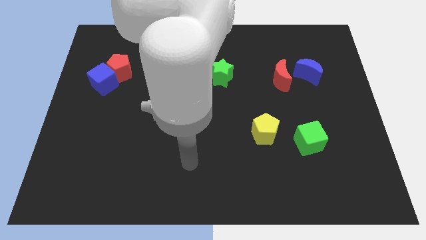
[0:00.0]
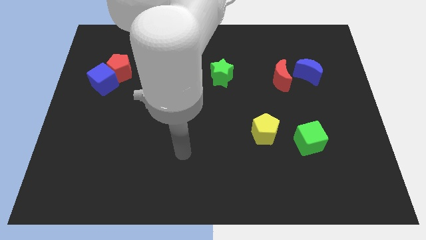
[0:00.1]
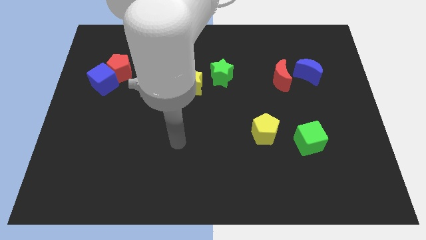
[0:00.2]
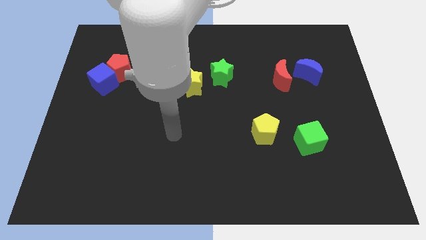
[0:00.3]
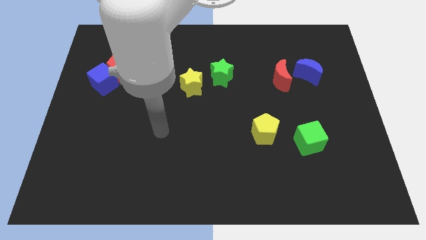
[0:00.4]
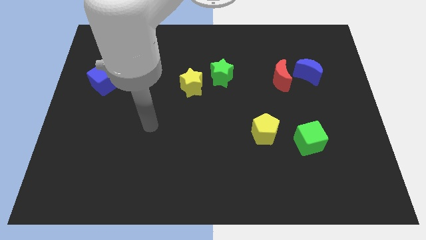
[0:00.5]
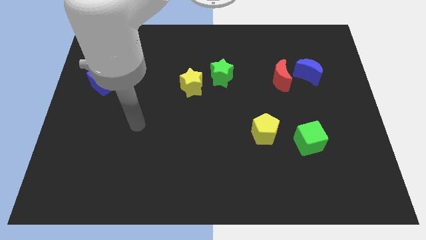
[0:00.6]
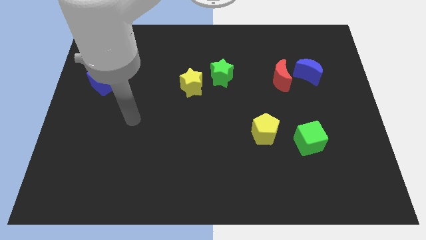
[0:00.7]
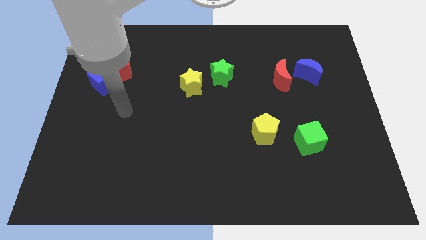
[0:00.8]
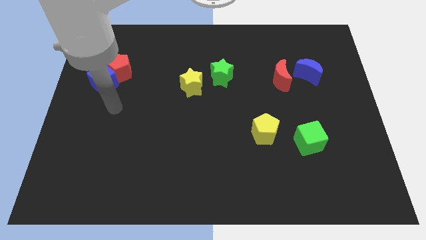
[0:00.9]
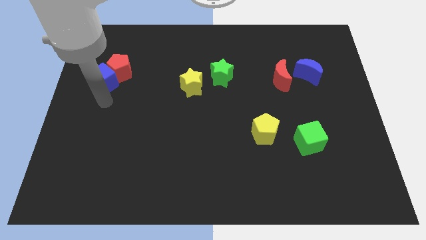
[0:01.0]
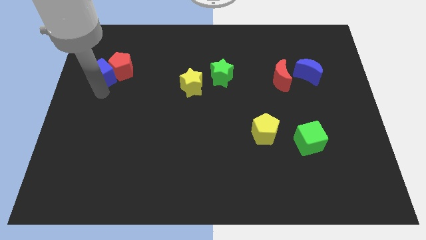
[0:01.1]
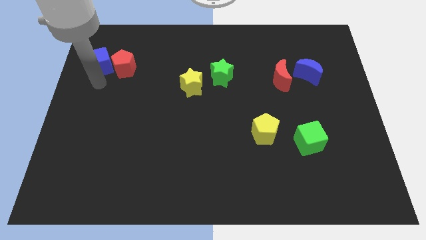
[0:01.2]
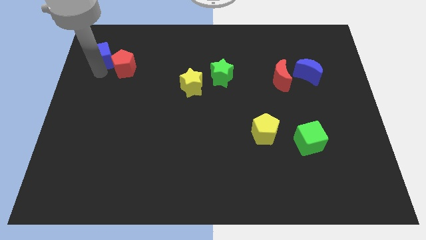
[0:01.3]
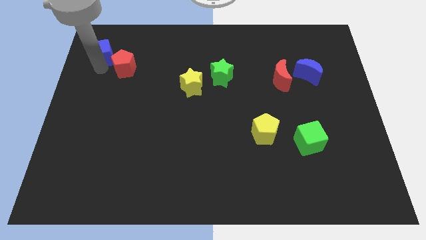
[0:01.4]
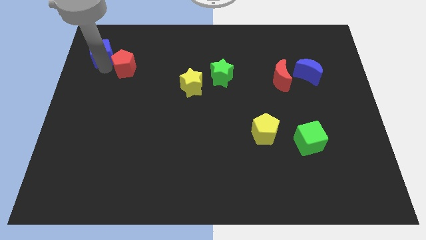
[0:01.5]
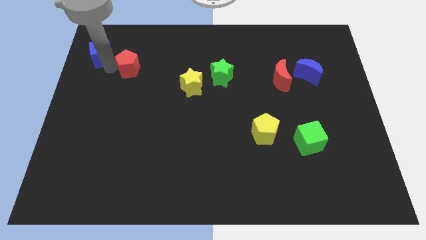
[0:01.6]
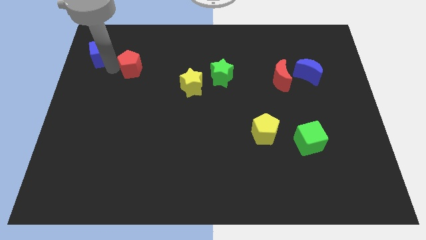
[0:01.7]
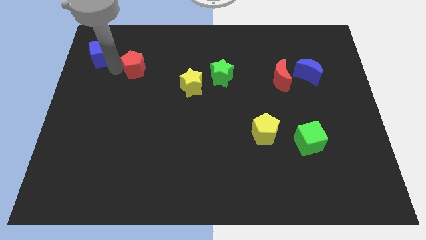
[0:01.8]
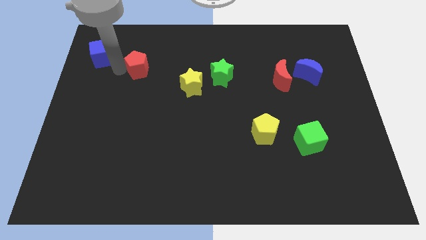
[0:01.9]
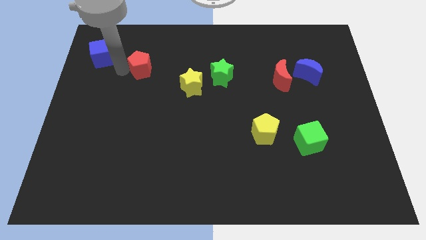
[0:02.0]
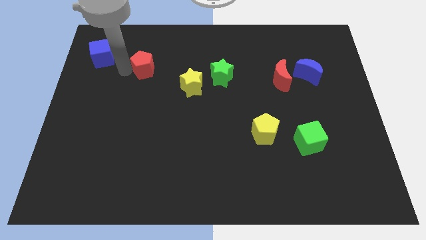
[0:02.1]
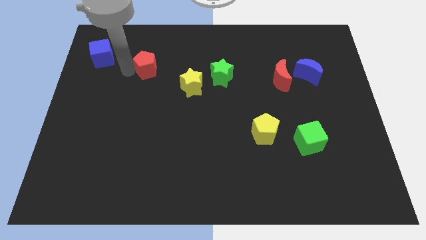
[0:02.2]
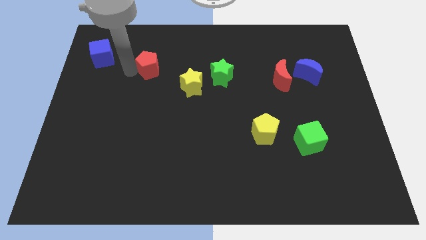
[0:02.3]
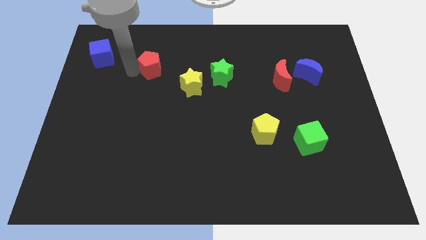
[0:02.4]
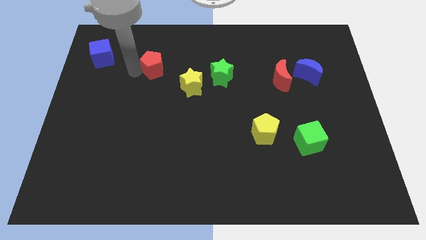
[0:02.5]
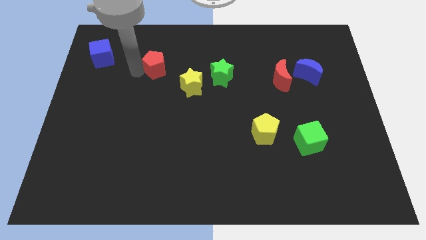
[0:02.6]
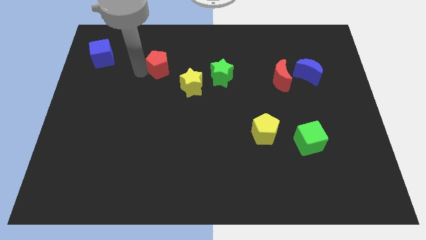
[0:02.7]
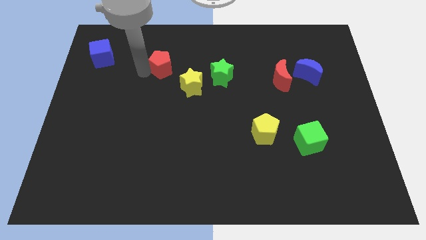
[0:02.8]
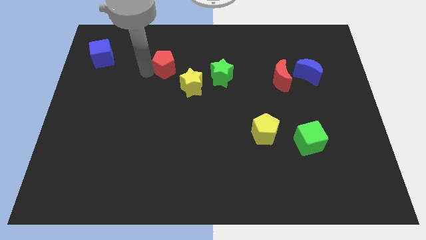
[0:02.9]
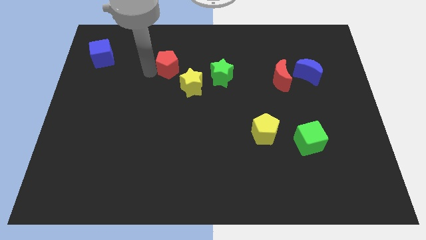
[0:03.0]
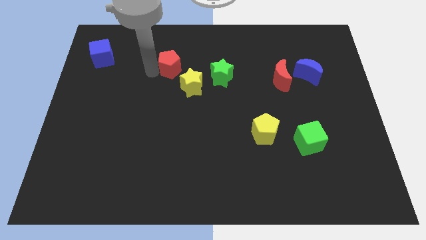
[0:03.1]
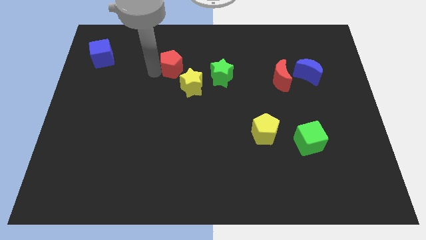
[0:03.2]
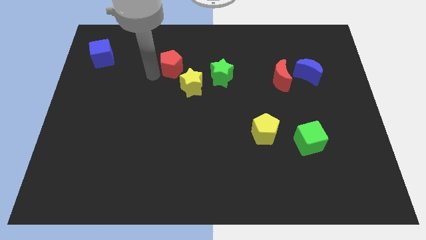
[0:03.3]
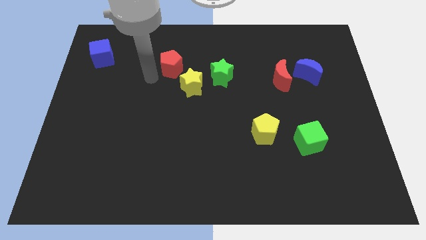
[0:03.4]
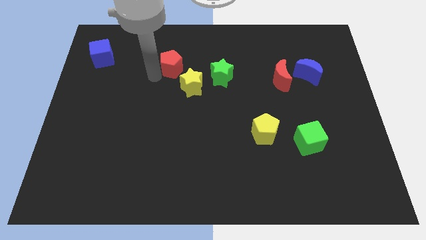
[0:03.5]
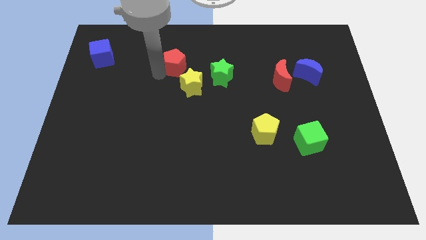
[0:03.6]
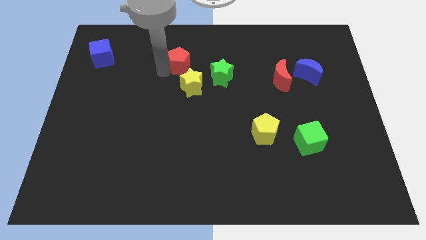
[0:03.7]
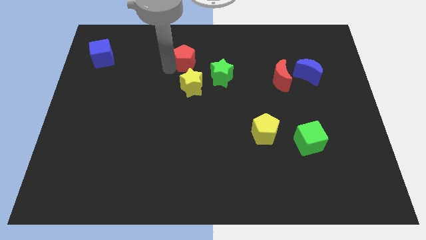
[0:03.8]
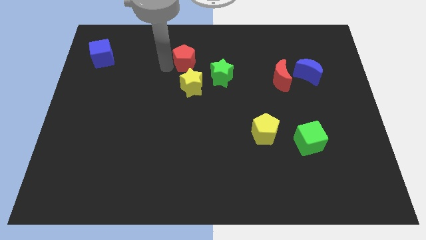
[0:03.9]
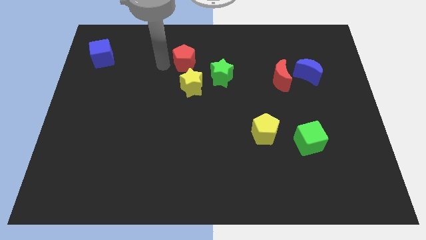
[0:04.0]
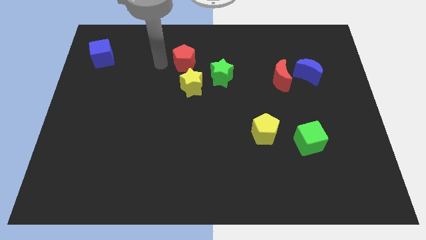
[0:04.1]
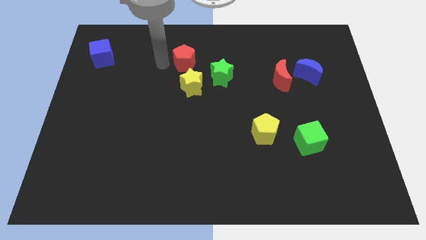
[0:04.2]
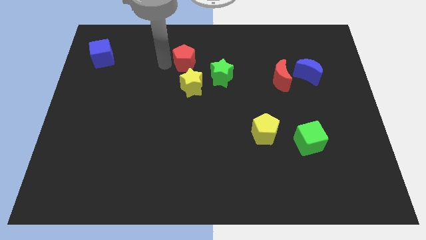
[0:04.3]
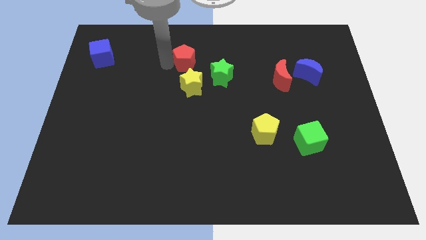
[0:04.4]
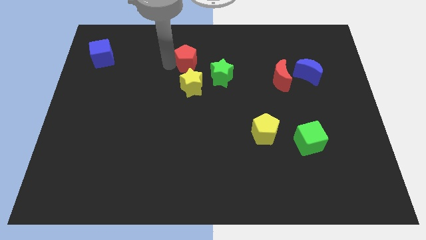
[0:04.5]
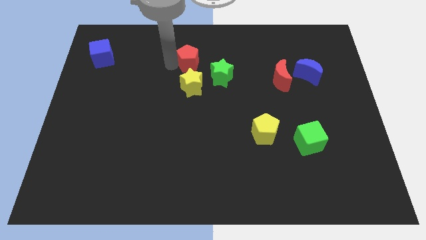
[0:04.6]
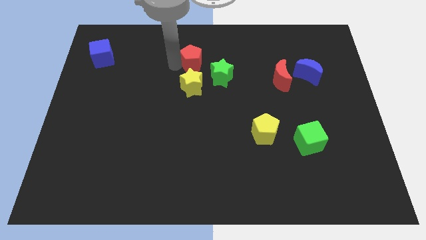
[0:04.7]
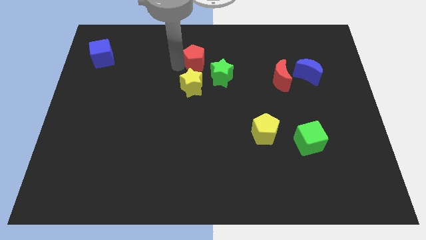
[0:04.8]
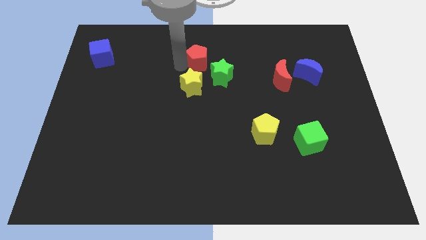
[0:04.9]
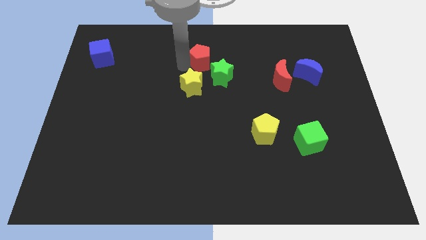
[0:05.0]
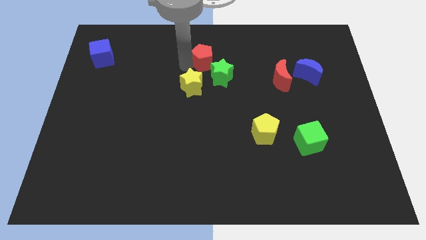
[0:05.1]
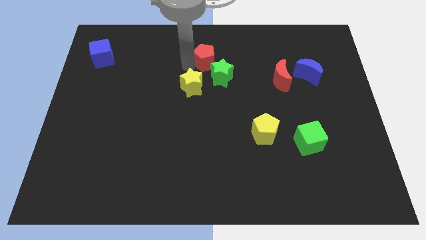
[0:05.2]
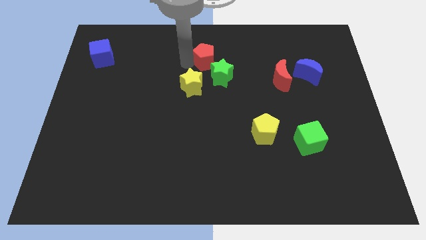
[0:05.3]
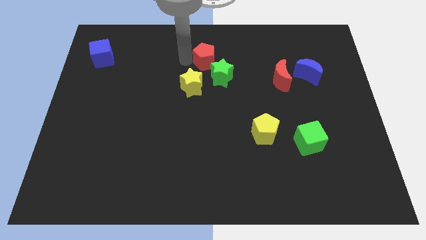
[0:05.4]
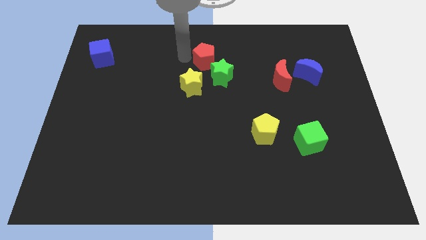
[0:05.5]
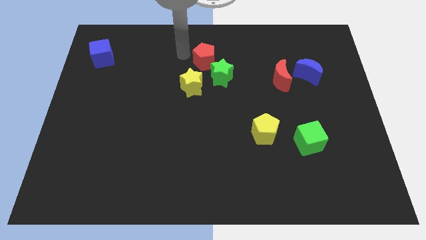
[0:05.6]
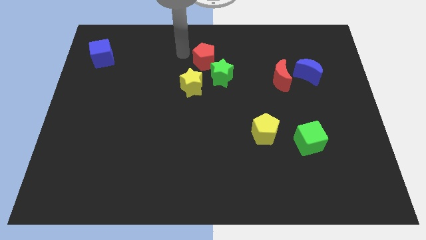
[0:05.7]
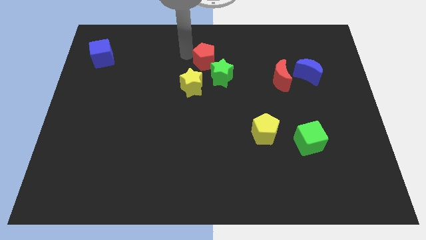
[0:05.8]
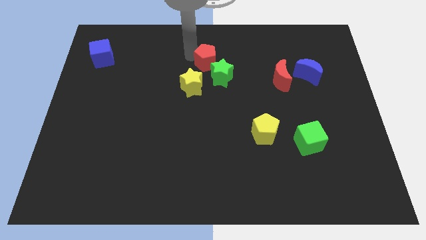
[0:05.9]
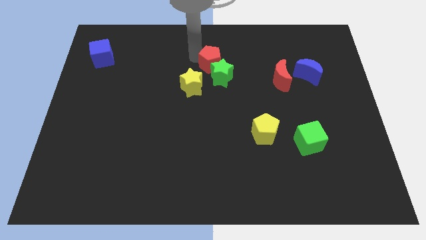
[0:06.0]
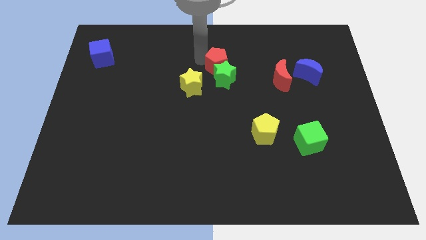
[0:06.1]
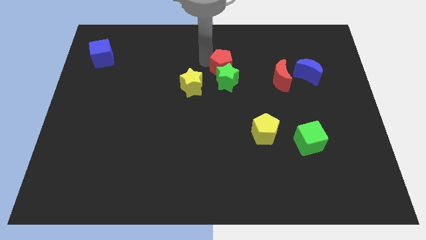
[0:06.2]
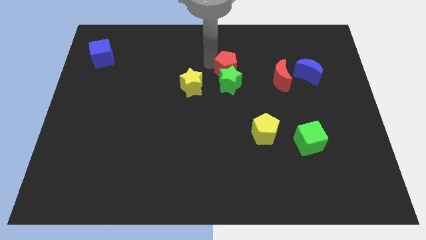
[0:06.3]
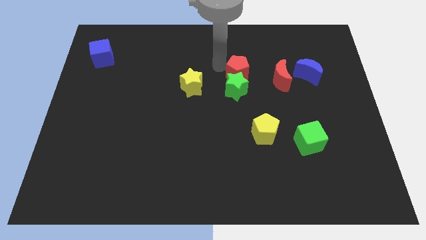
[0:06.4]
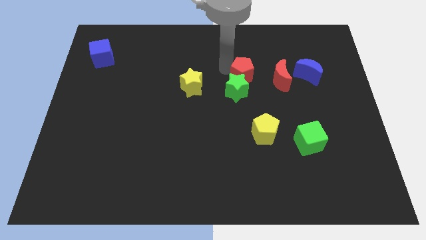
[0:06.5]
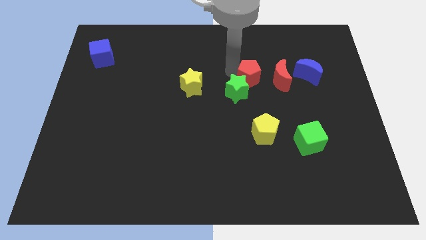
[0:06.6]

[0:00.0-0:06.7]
push the red pentagon left of the blue moon
